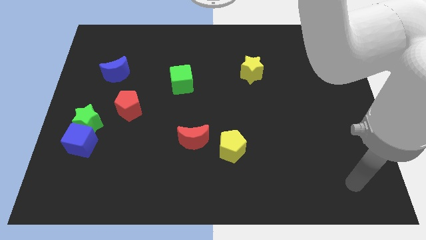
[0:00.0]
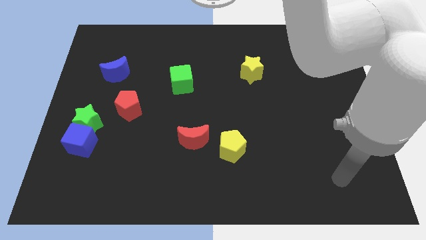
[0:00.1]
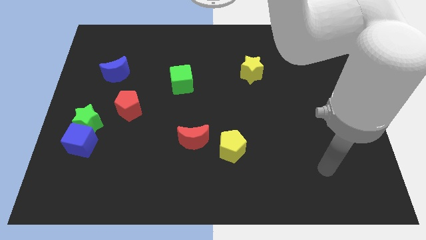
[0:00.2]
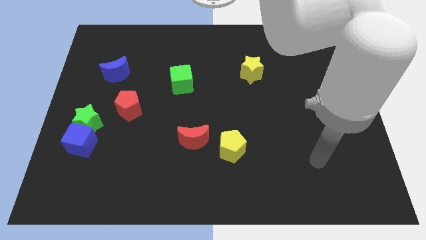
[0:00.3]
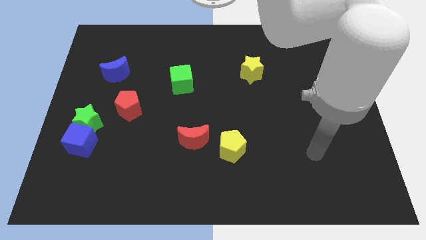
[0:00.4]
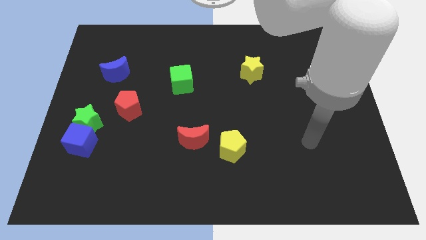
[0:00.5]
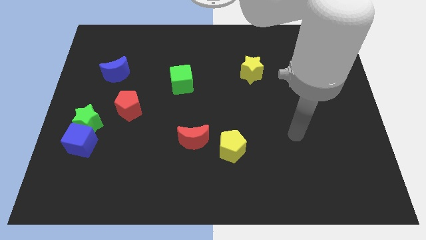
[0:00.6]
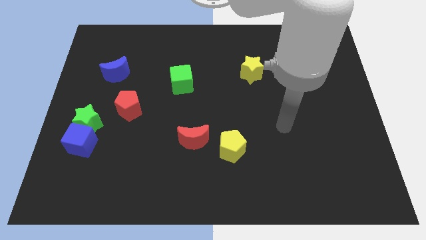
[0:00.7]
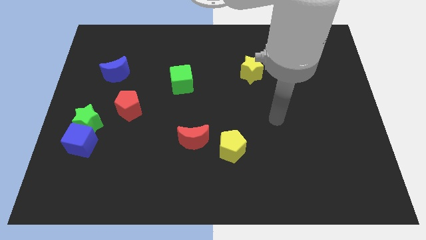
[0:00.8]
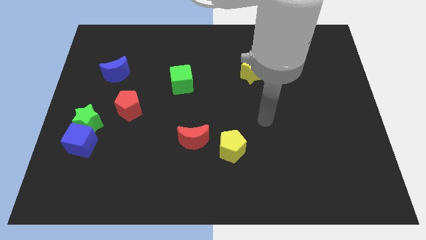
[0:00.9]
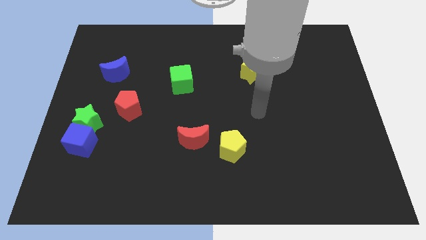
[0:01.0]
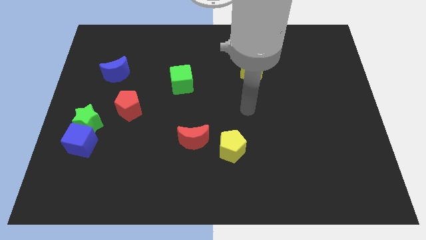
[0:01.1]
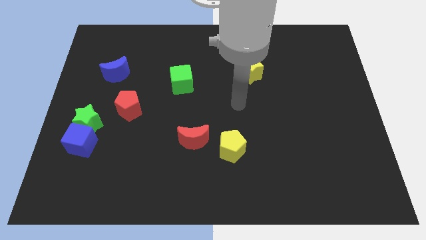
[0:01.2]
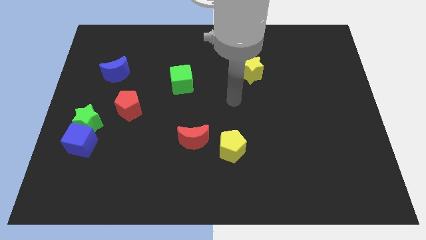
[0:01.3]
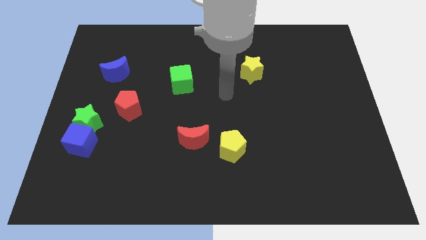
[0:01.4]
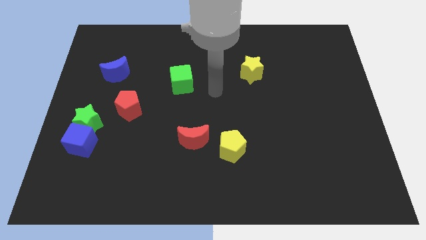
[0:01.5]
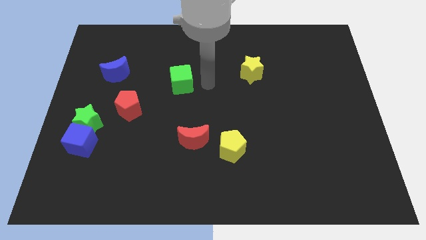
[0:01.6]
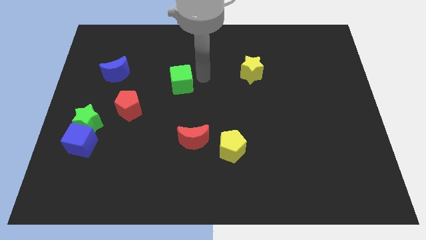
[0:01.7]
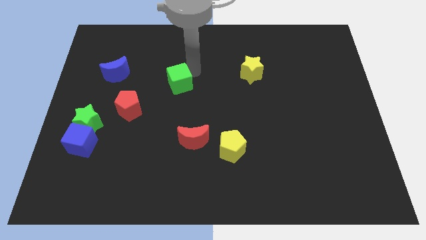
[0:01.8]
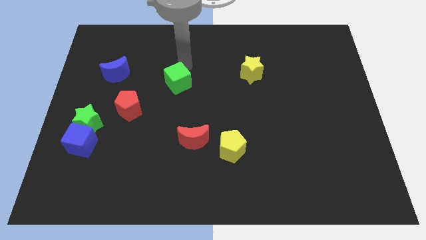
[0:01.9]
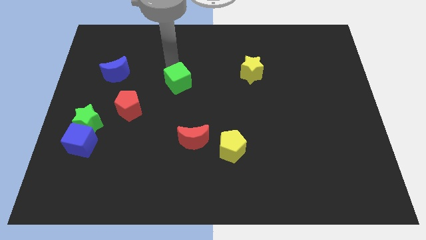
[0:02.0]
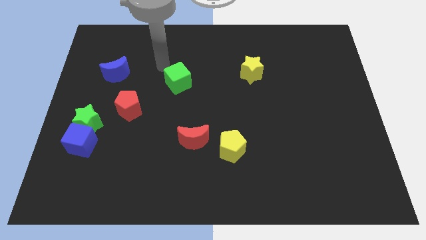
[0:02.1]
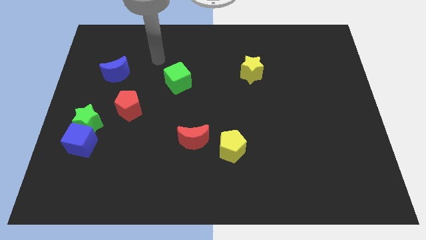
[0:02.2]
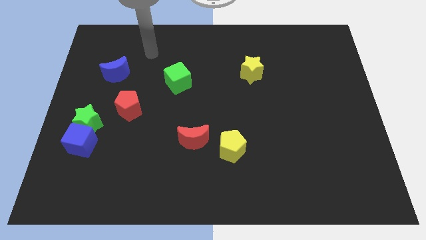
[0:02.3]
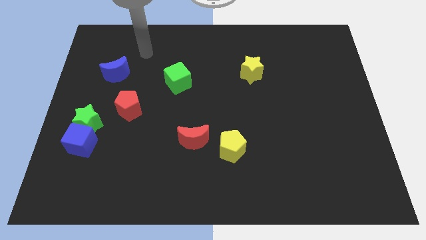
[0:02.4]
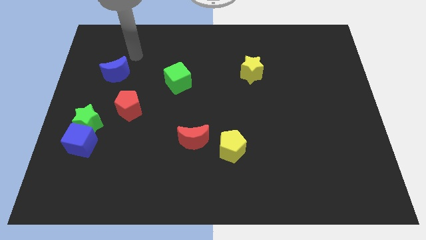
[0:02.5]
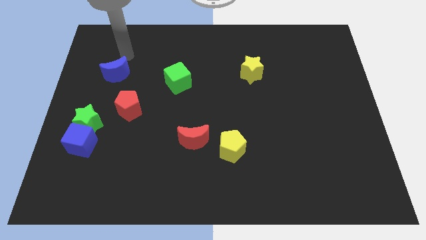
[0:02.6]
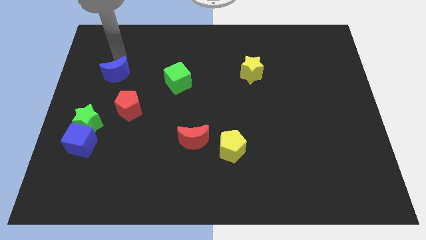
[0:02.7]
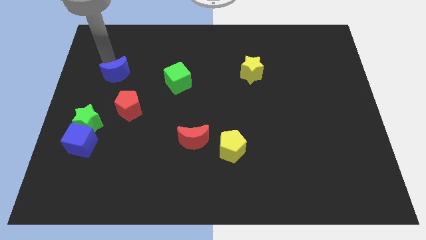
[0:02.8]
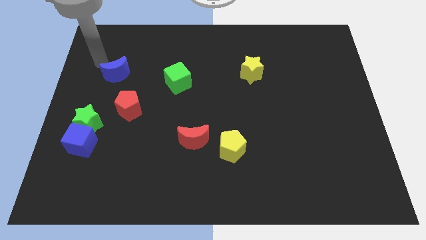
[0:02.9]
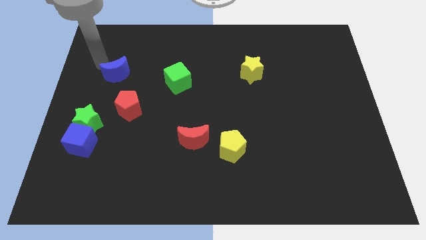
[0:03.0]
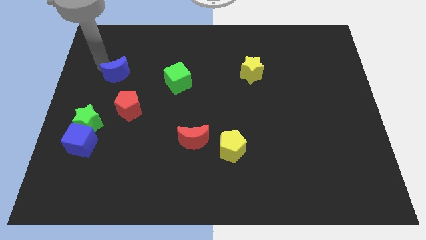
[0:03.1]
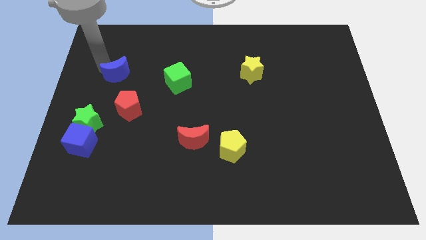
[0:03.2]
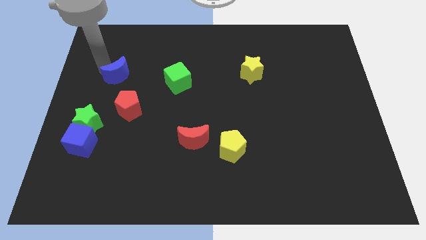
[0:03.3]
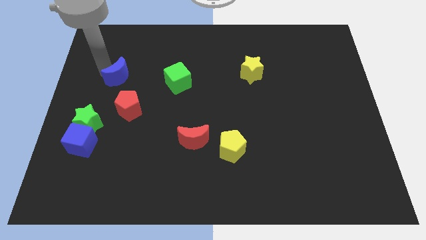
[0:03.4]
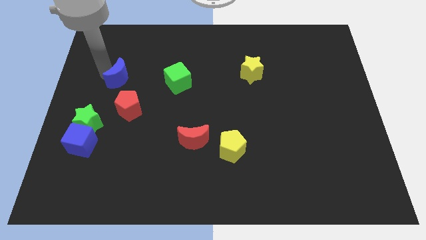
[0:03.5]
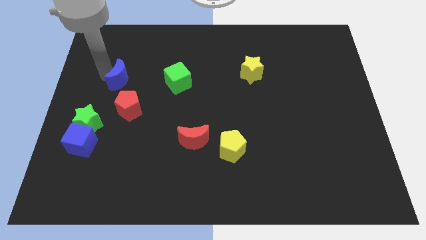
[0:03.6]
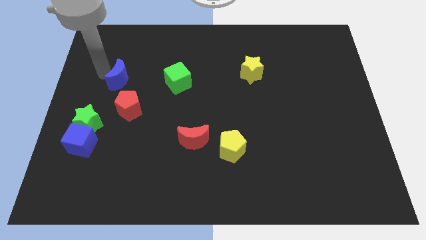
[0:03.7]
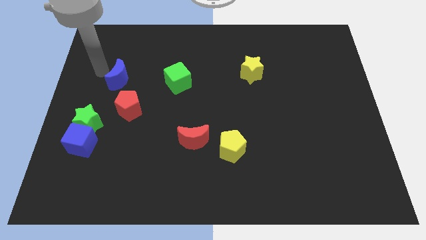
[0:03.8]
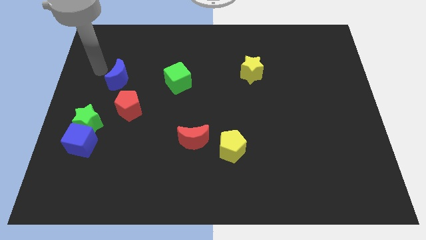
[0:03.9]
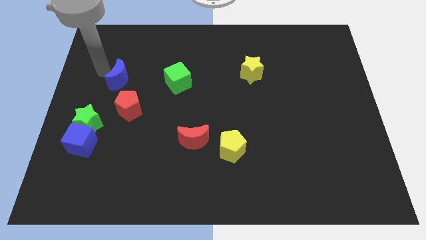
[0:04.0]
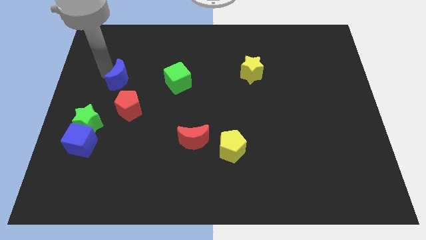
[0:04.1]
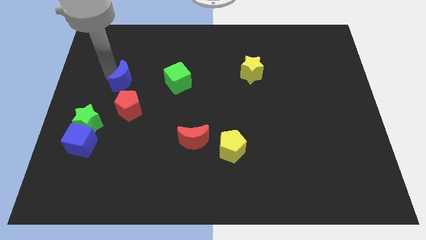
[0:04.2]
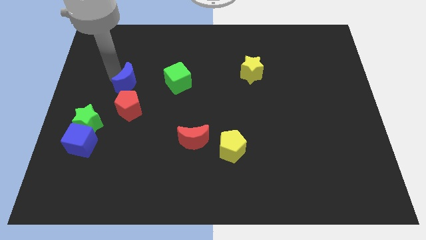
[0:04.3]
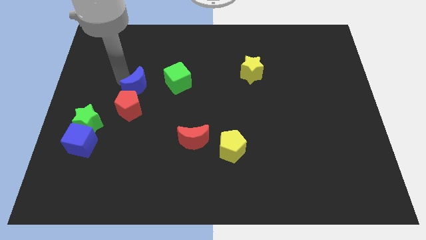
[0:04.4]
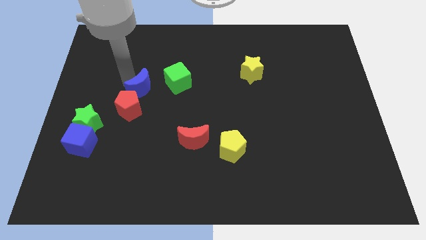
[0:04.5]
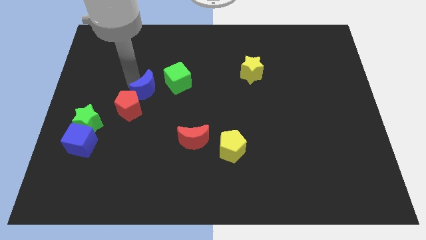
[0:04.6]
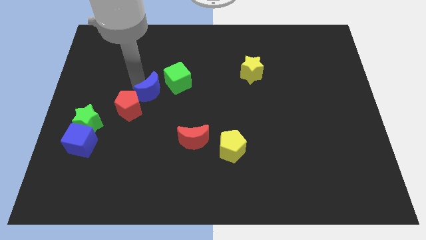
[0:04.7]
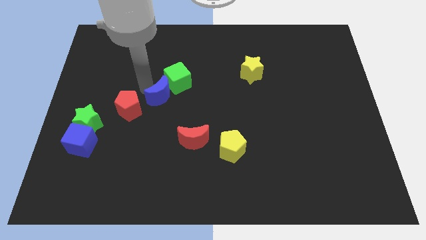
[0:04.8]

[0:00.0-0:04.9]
put the blue moon to the bottom of the green cube

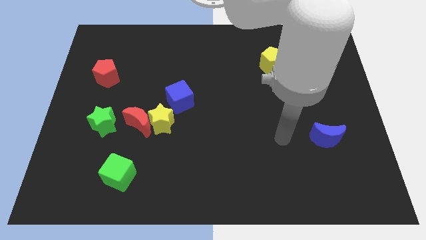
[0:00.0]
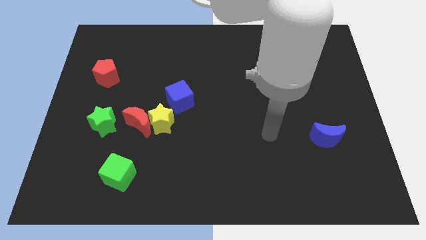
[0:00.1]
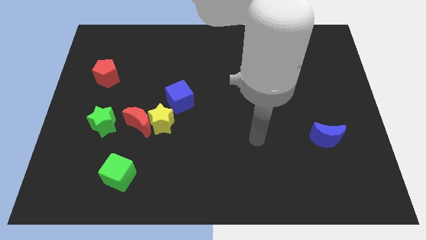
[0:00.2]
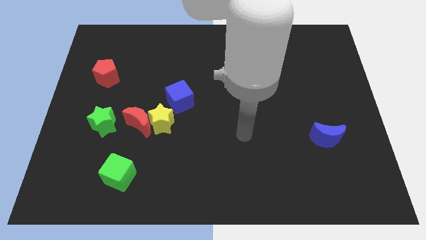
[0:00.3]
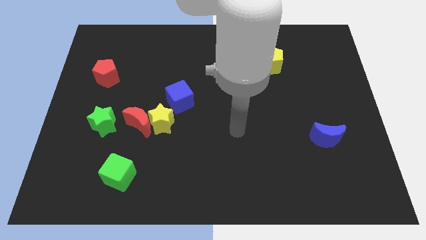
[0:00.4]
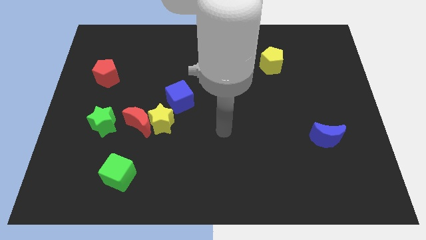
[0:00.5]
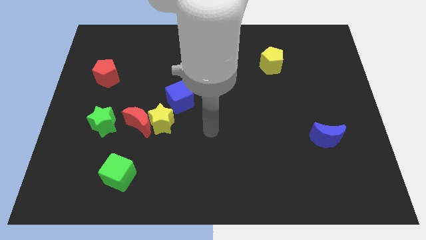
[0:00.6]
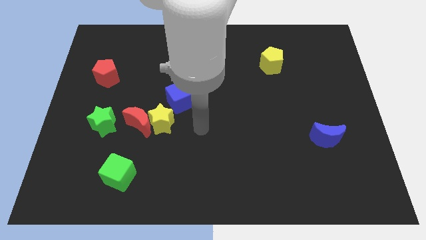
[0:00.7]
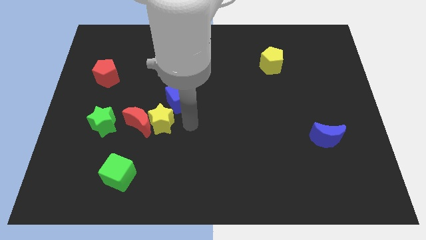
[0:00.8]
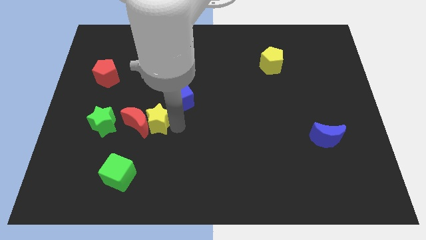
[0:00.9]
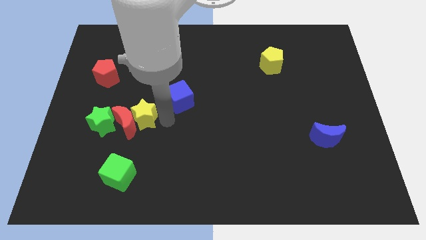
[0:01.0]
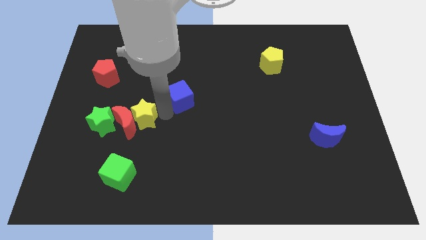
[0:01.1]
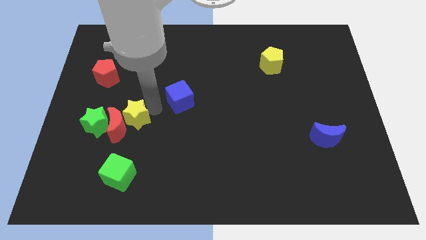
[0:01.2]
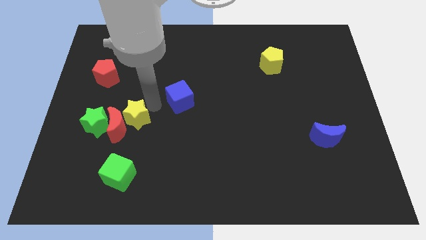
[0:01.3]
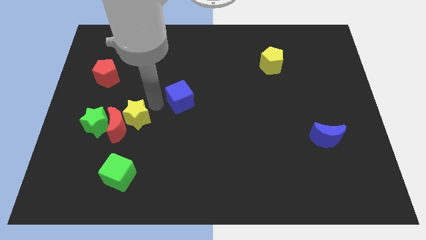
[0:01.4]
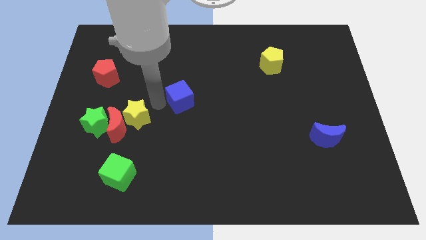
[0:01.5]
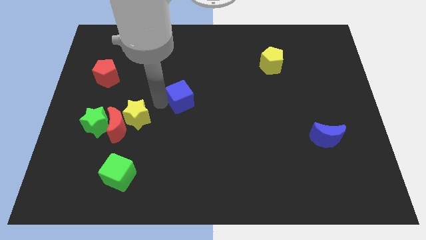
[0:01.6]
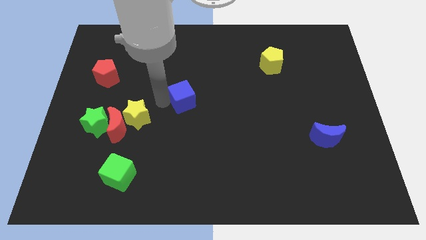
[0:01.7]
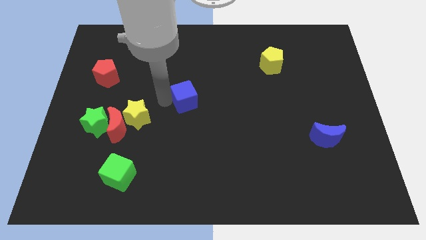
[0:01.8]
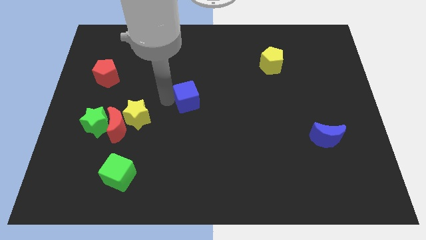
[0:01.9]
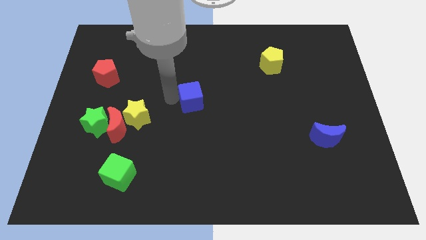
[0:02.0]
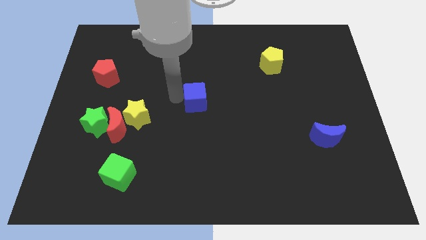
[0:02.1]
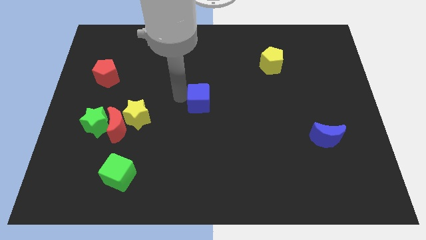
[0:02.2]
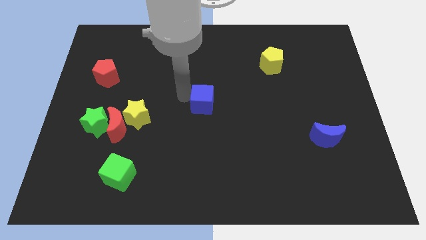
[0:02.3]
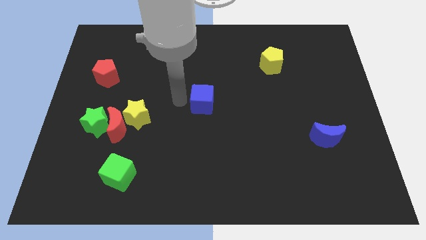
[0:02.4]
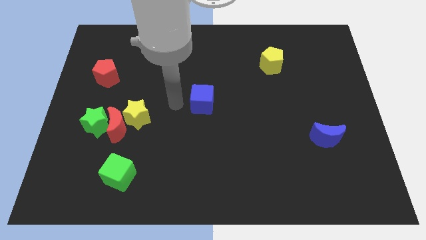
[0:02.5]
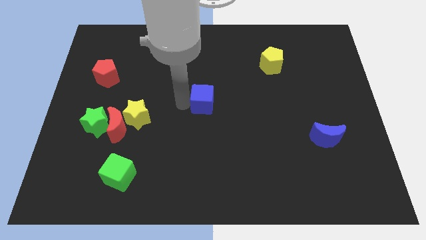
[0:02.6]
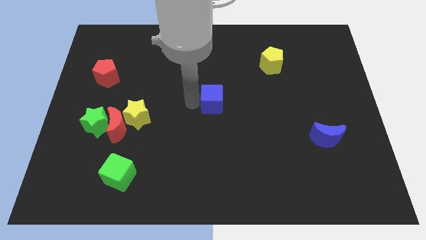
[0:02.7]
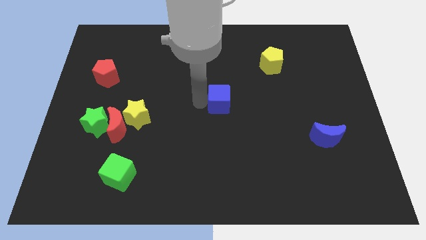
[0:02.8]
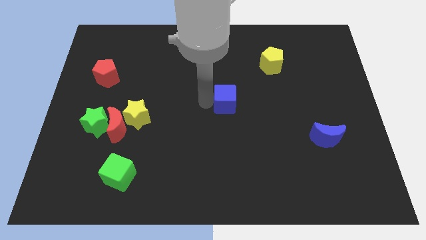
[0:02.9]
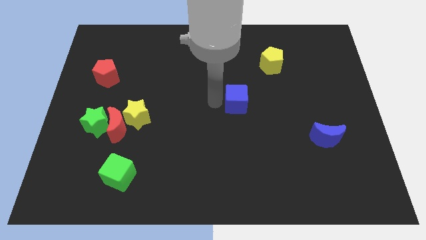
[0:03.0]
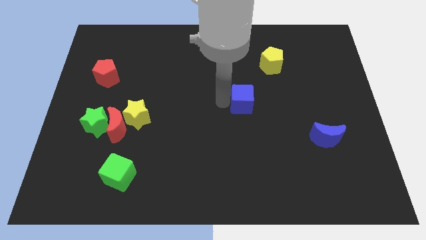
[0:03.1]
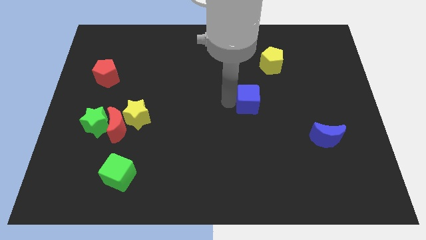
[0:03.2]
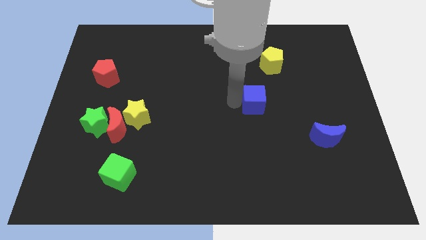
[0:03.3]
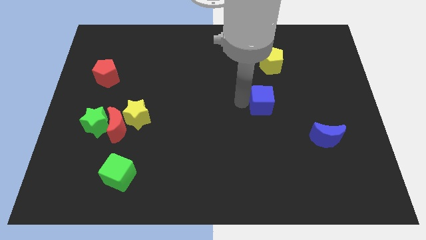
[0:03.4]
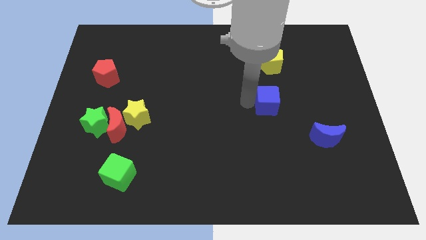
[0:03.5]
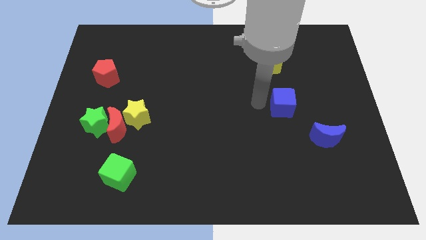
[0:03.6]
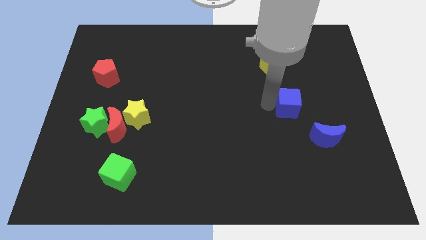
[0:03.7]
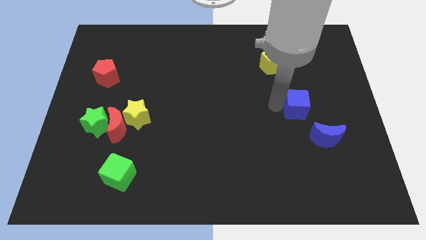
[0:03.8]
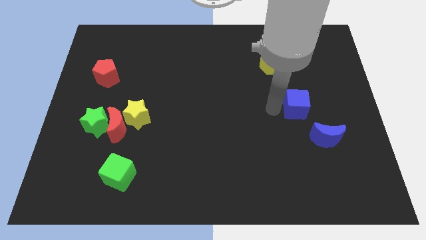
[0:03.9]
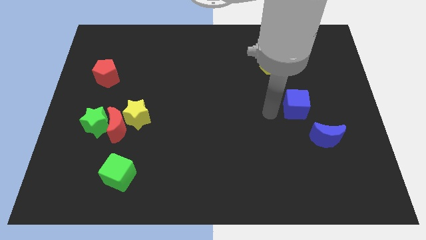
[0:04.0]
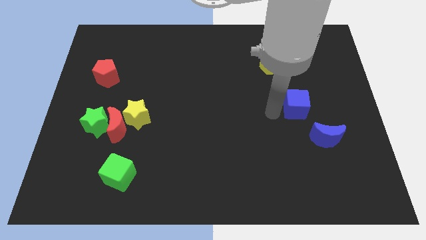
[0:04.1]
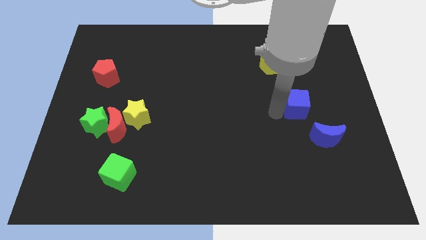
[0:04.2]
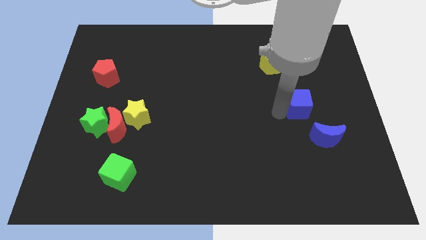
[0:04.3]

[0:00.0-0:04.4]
slide the blue cube to the top of the blue moon
